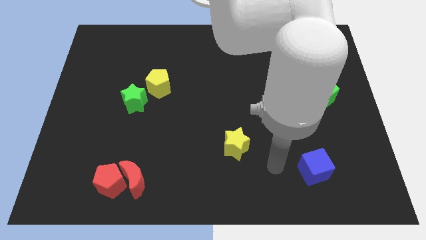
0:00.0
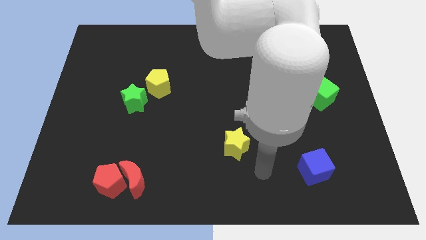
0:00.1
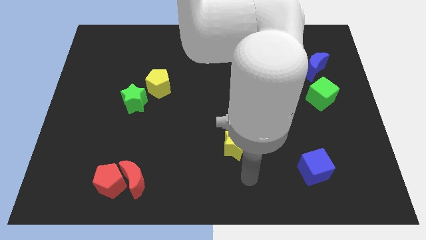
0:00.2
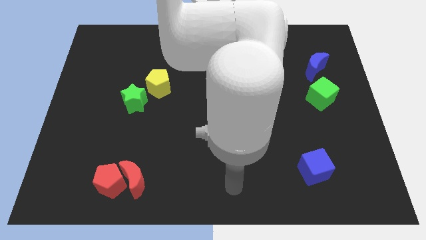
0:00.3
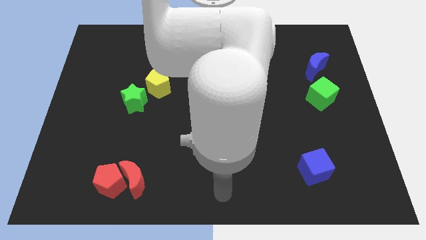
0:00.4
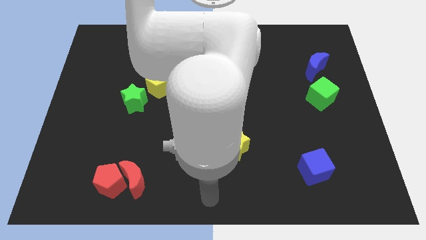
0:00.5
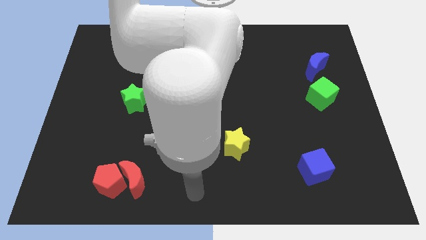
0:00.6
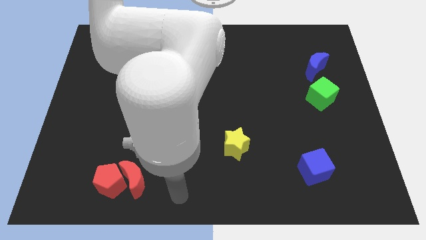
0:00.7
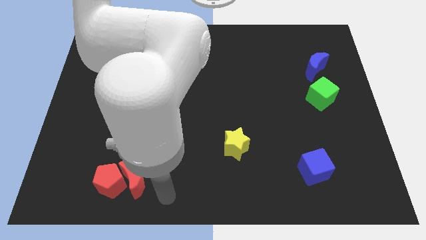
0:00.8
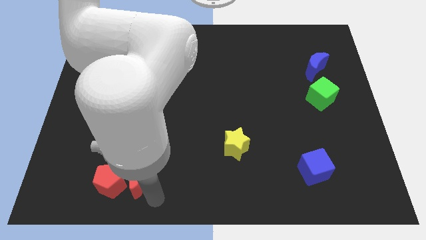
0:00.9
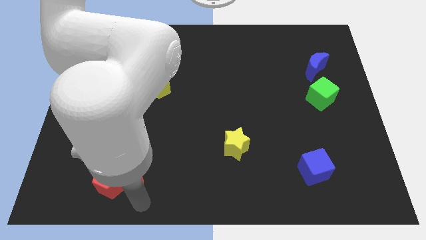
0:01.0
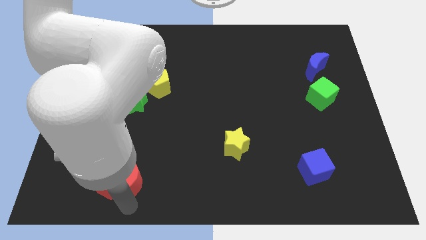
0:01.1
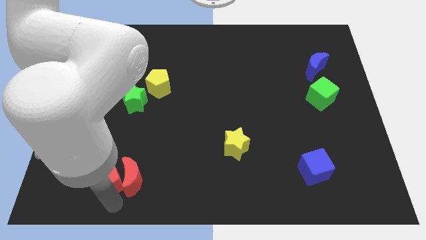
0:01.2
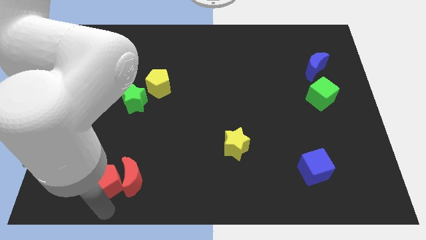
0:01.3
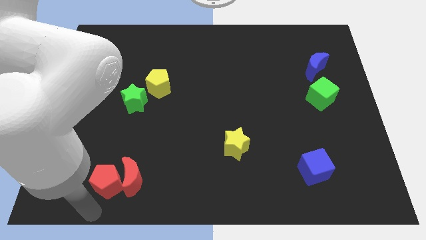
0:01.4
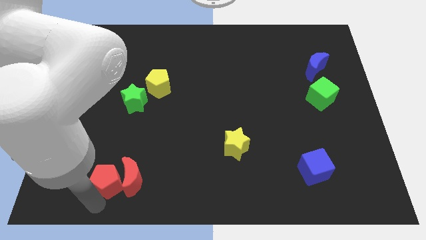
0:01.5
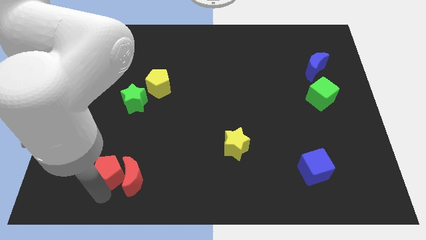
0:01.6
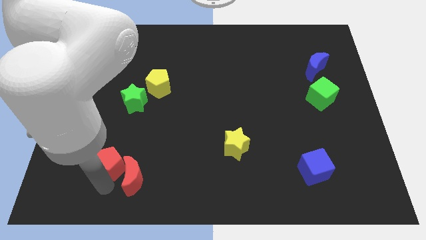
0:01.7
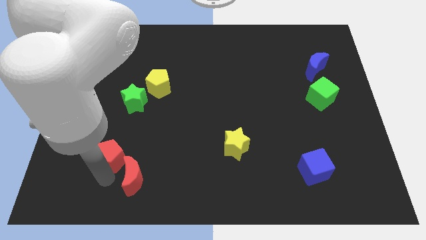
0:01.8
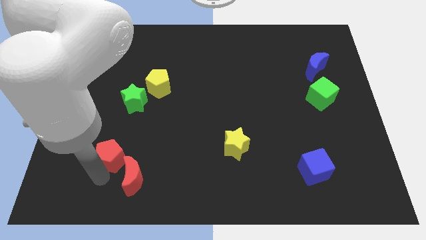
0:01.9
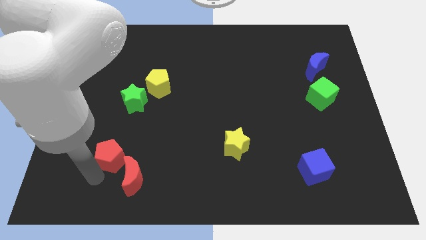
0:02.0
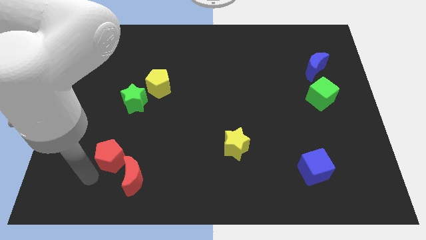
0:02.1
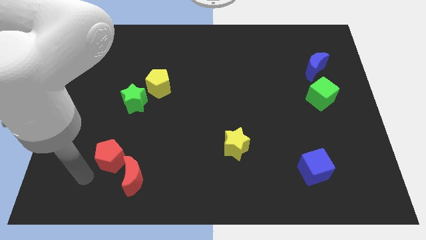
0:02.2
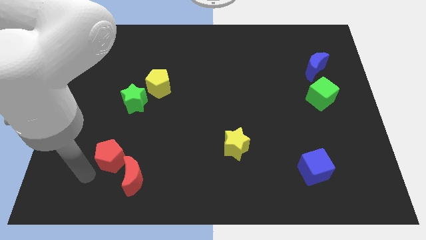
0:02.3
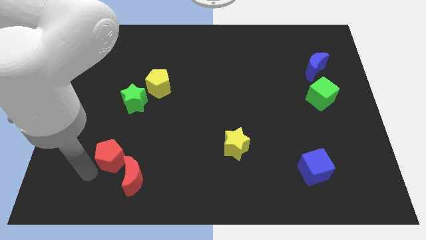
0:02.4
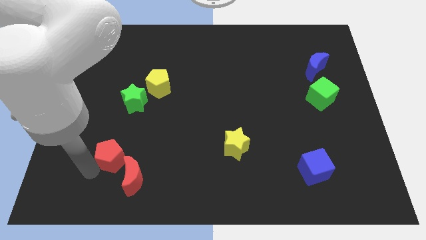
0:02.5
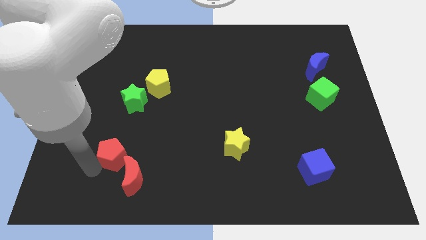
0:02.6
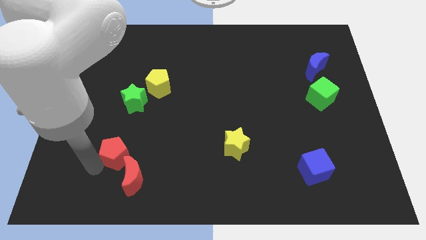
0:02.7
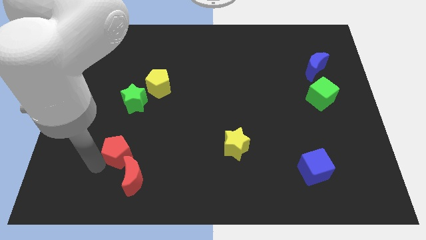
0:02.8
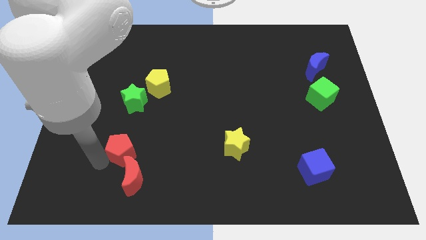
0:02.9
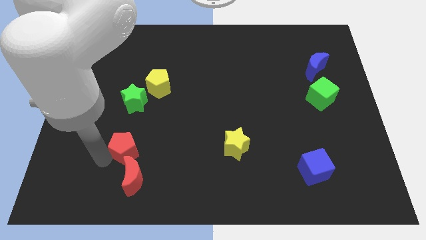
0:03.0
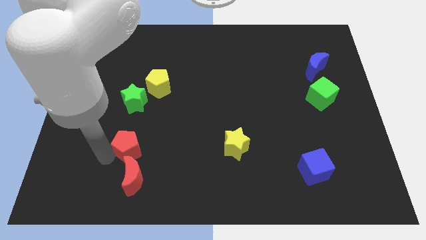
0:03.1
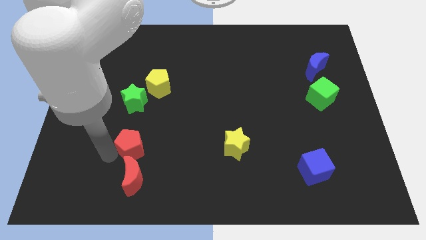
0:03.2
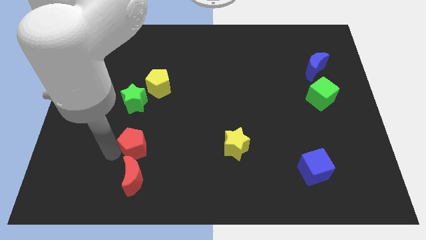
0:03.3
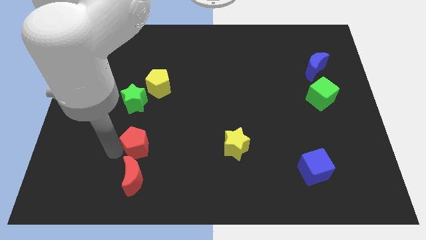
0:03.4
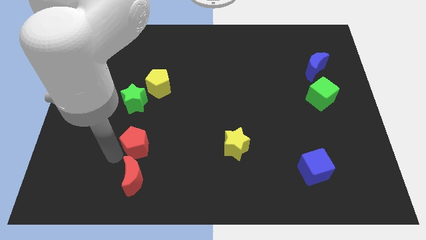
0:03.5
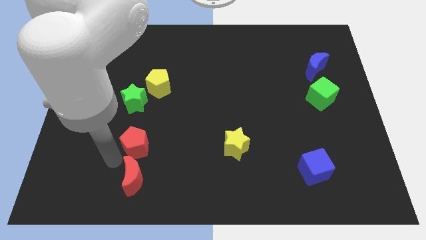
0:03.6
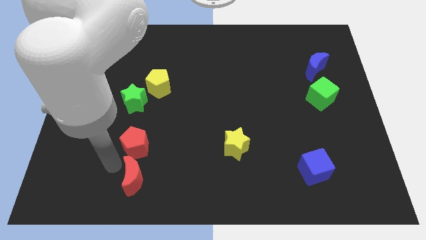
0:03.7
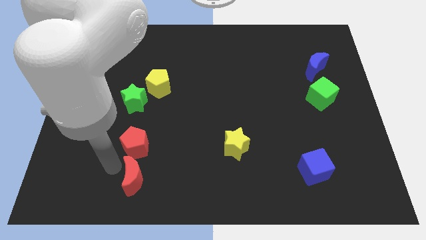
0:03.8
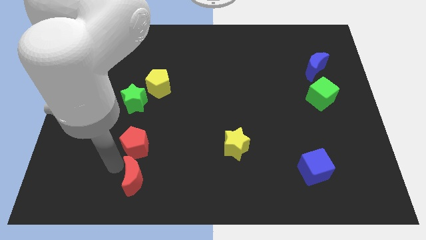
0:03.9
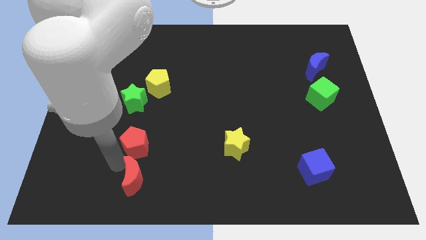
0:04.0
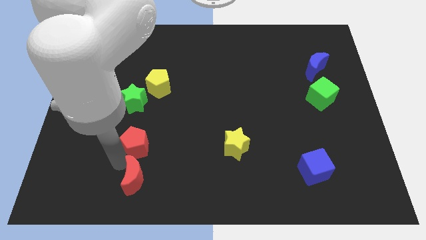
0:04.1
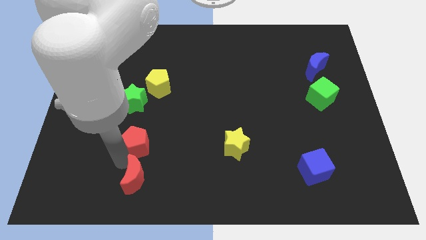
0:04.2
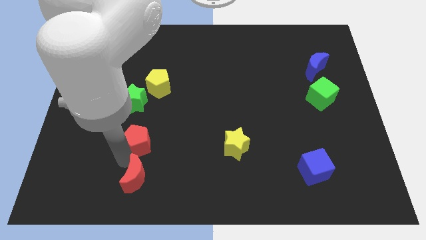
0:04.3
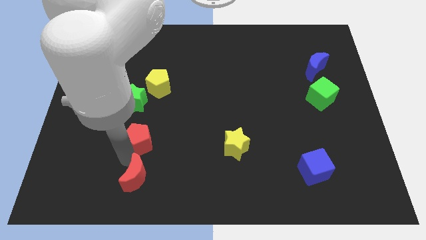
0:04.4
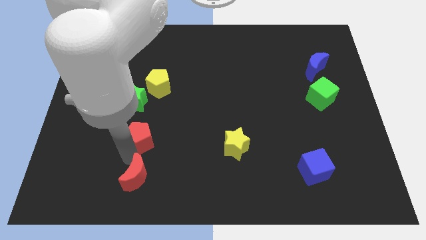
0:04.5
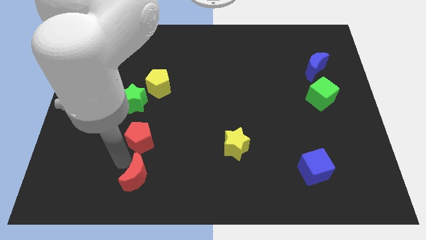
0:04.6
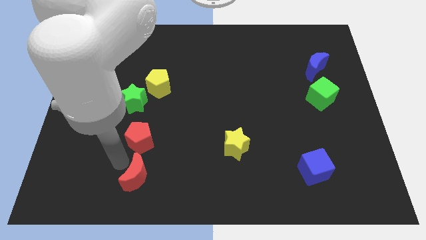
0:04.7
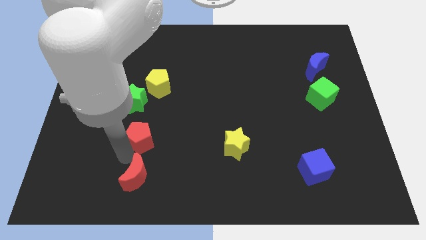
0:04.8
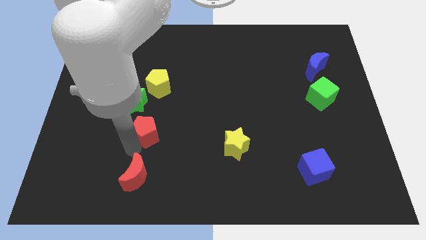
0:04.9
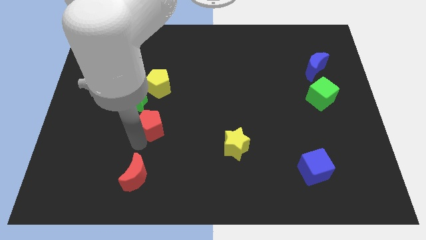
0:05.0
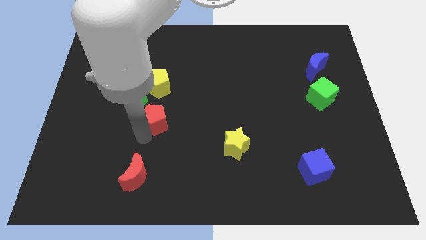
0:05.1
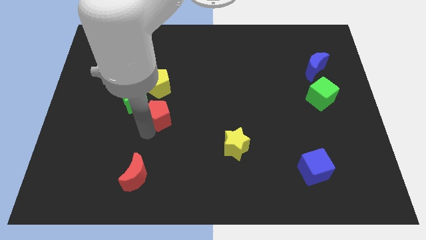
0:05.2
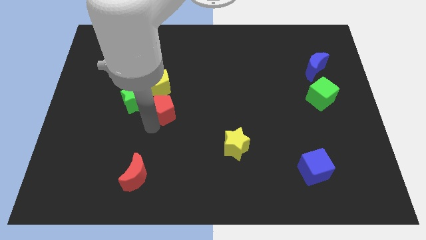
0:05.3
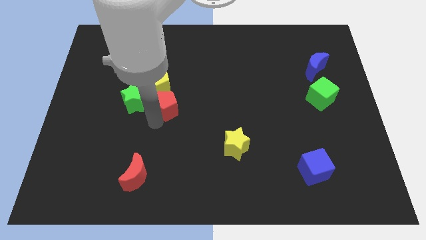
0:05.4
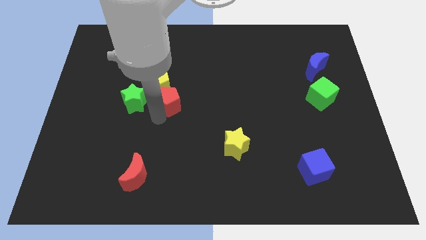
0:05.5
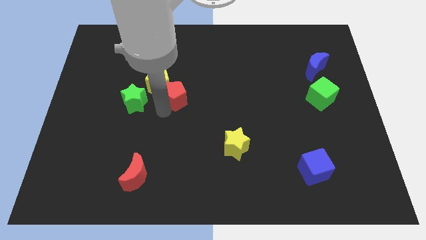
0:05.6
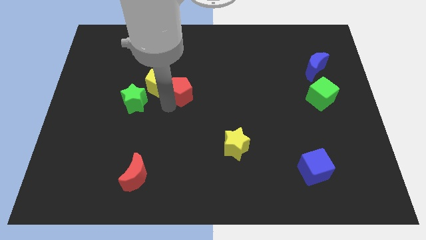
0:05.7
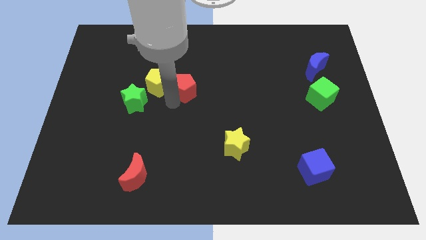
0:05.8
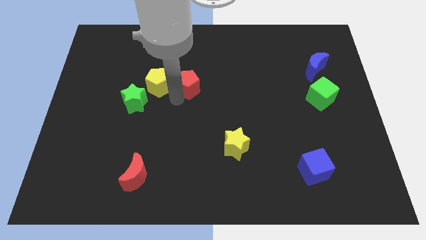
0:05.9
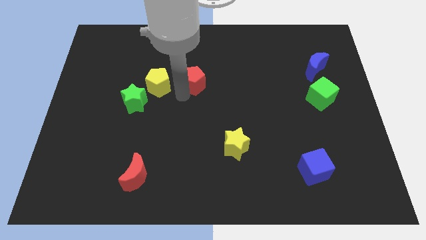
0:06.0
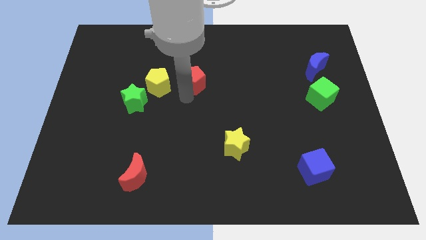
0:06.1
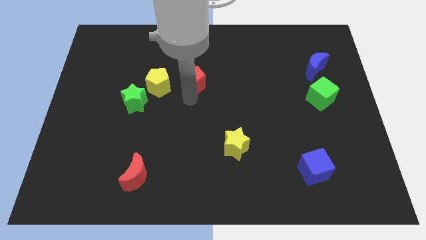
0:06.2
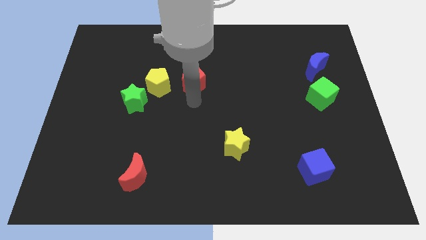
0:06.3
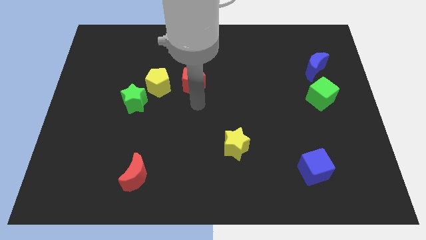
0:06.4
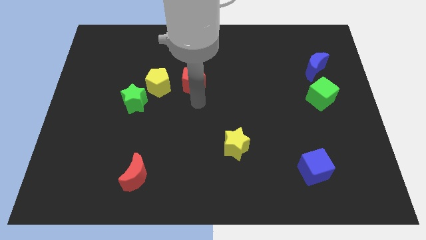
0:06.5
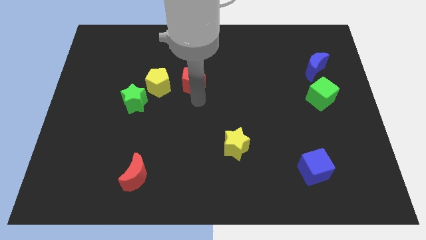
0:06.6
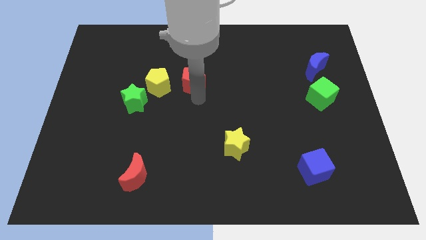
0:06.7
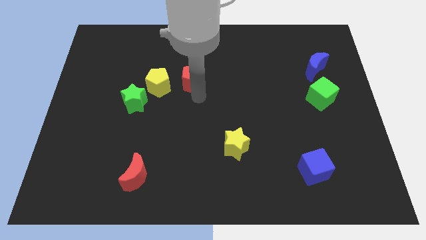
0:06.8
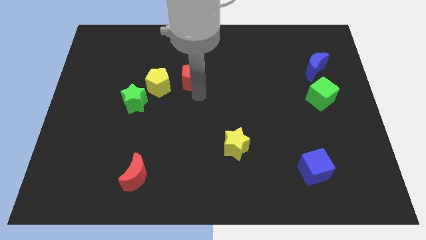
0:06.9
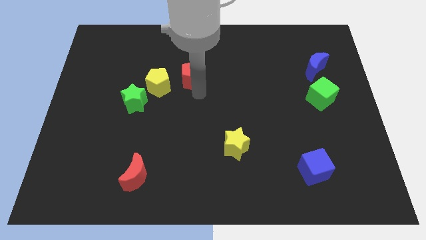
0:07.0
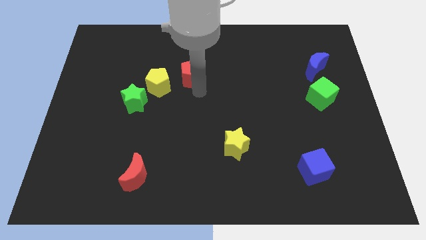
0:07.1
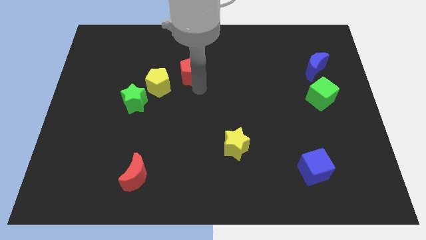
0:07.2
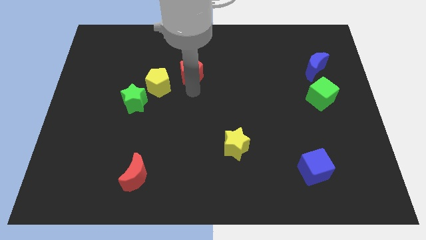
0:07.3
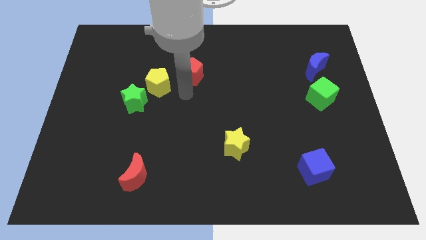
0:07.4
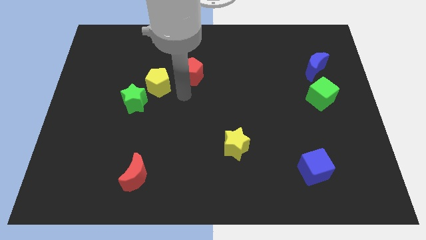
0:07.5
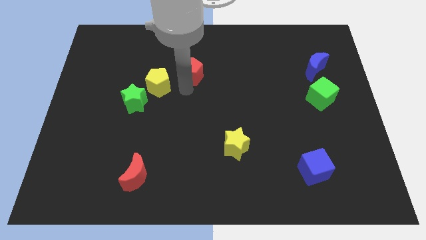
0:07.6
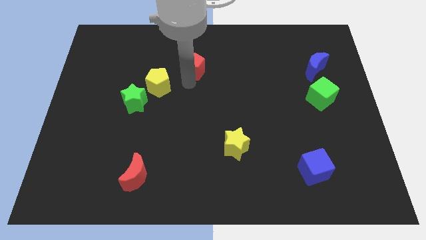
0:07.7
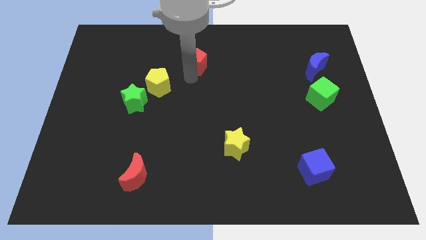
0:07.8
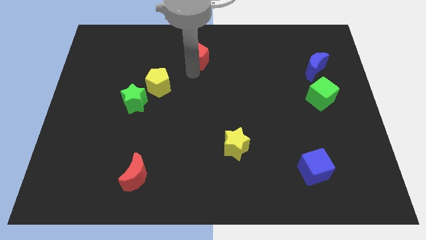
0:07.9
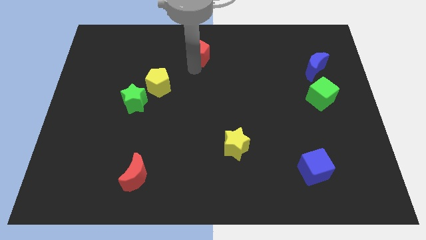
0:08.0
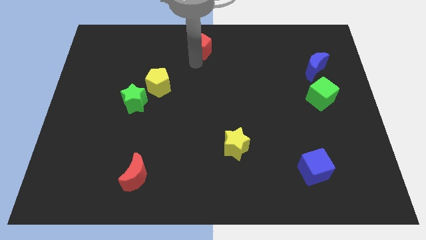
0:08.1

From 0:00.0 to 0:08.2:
move the red pentagon to the top side
